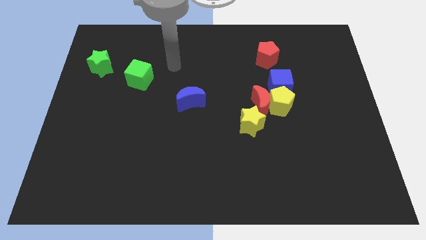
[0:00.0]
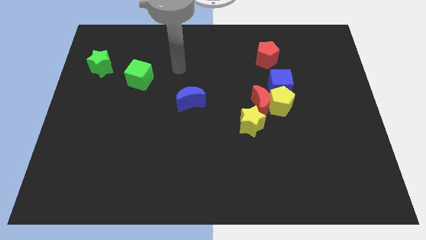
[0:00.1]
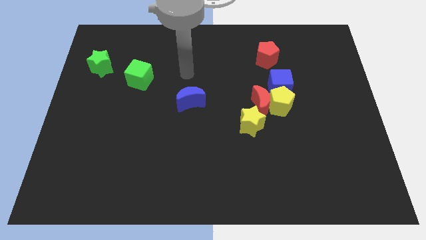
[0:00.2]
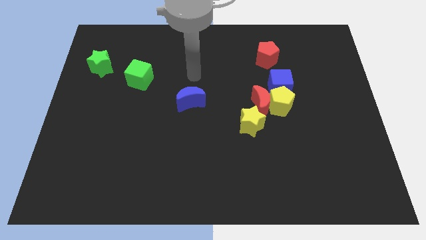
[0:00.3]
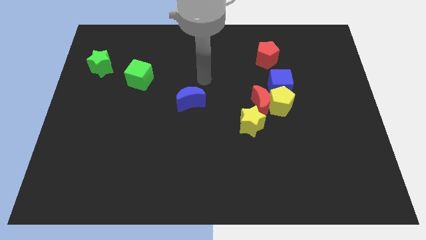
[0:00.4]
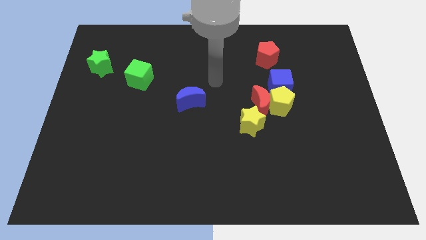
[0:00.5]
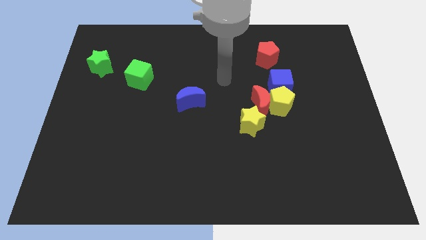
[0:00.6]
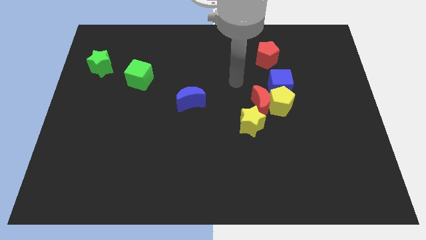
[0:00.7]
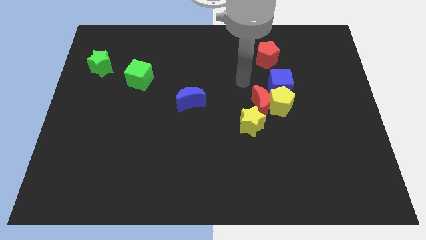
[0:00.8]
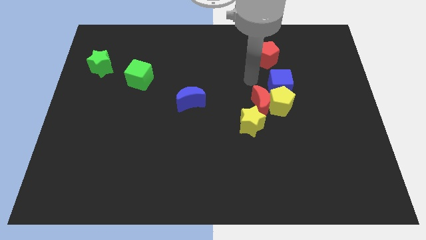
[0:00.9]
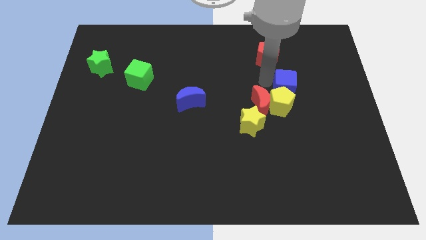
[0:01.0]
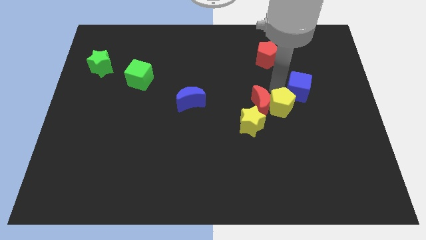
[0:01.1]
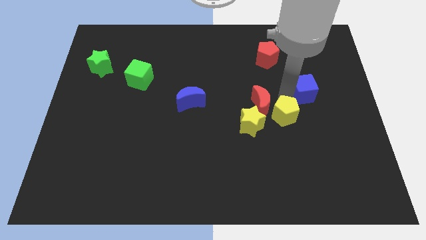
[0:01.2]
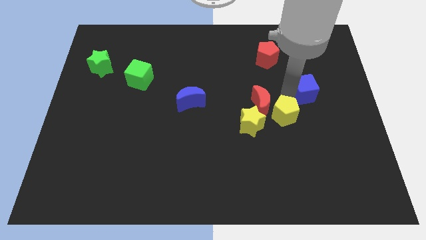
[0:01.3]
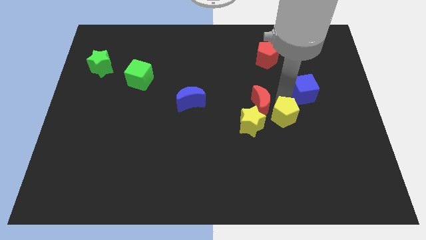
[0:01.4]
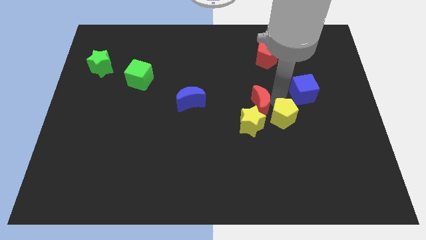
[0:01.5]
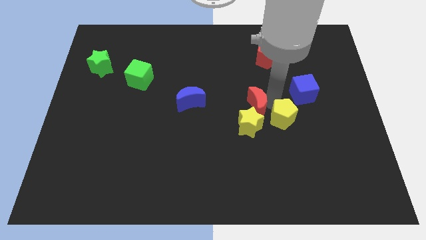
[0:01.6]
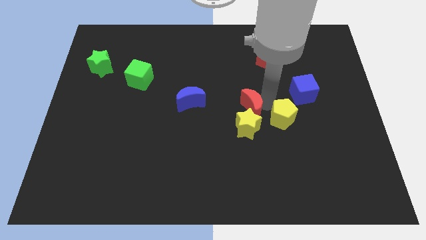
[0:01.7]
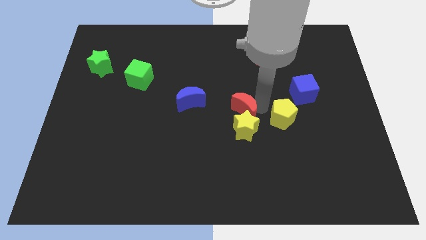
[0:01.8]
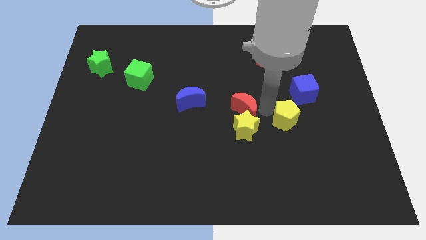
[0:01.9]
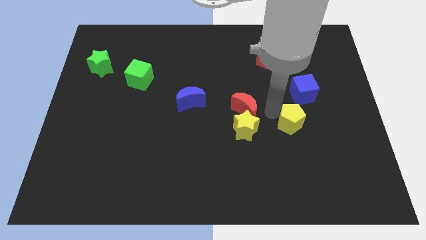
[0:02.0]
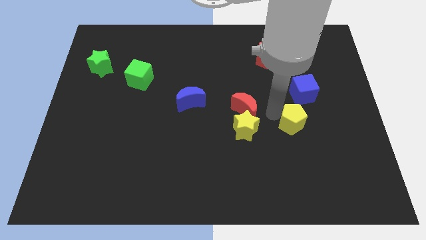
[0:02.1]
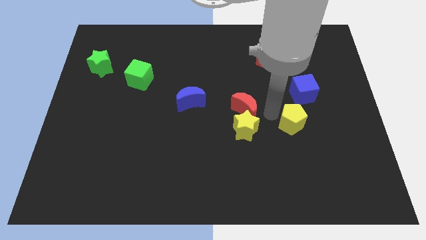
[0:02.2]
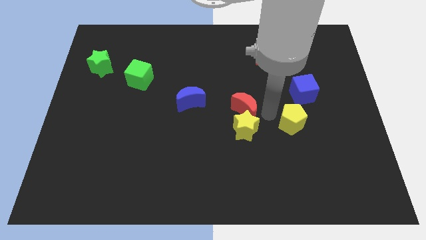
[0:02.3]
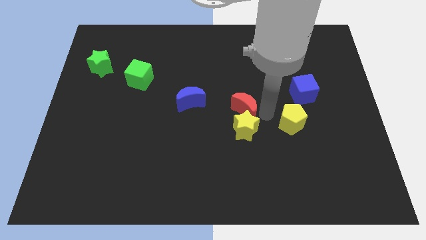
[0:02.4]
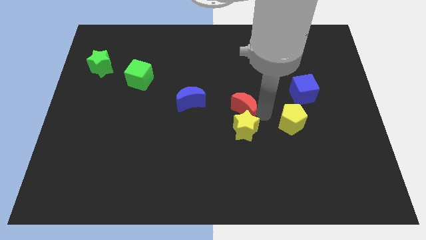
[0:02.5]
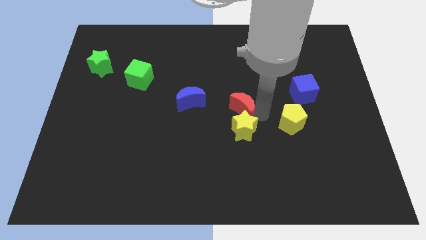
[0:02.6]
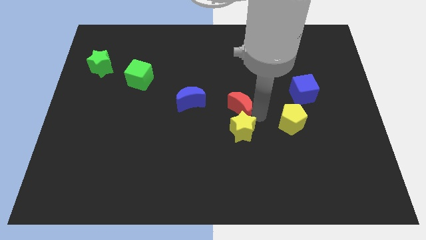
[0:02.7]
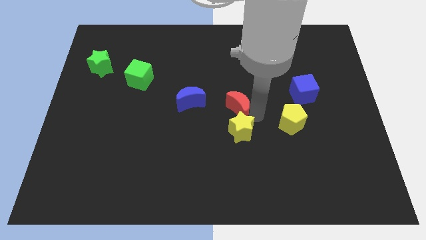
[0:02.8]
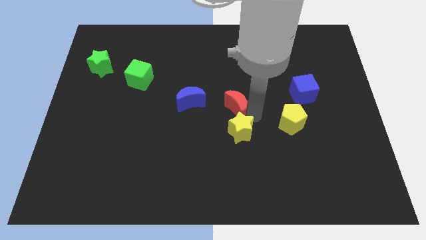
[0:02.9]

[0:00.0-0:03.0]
separate the red moon from the group of blocks

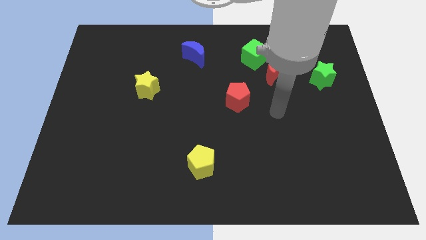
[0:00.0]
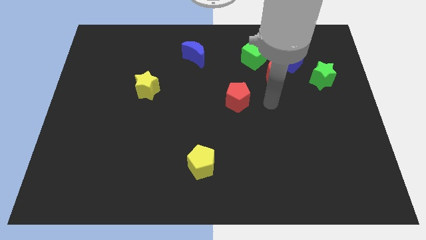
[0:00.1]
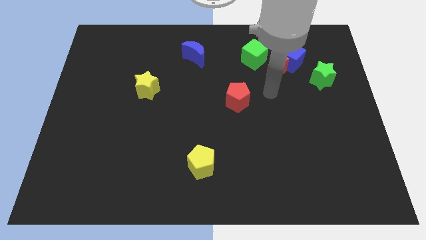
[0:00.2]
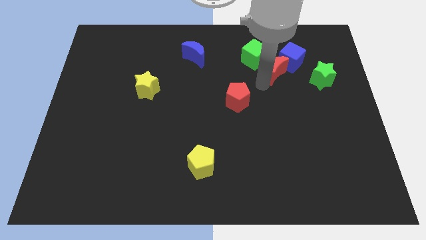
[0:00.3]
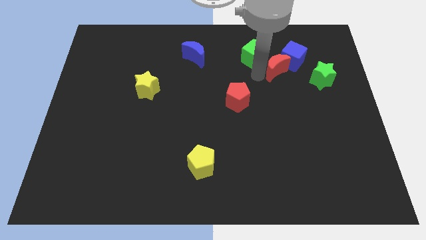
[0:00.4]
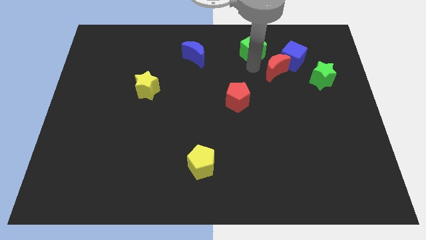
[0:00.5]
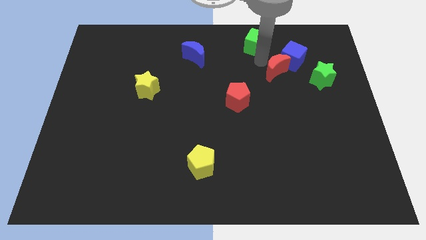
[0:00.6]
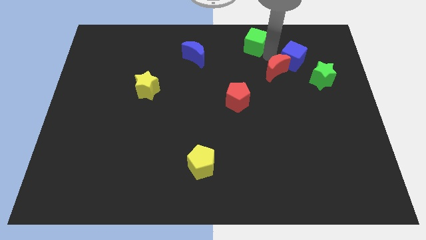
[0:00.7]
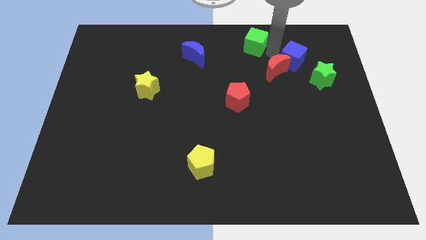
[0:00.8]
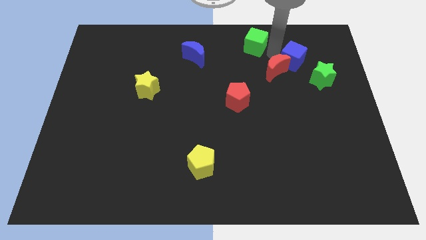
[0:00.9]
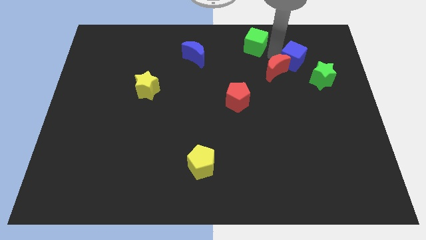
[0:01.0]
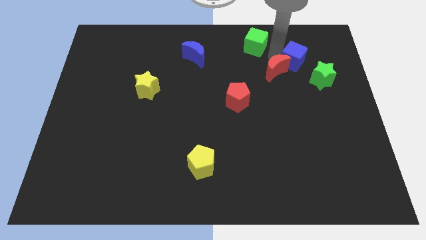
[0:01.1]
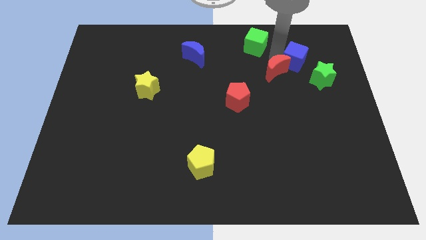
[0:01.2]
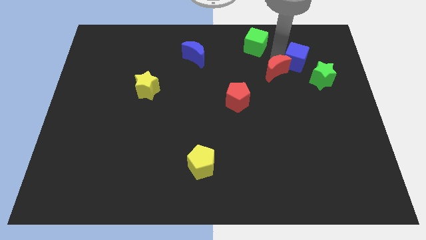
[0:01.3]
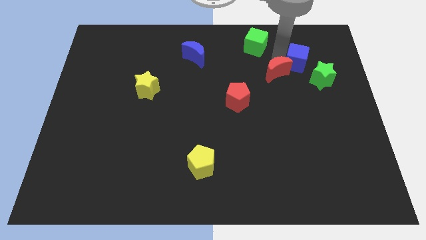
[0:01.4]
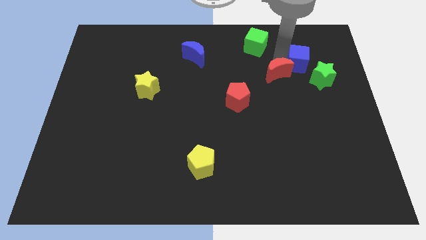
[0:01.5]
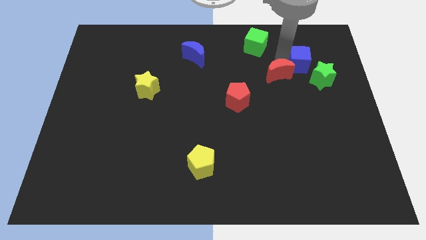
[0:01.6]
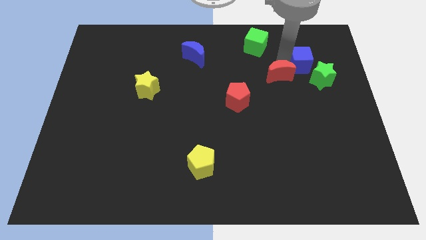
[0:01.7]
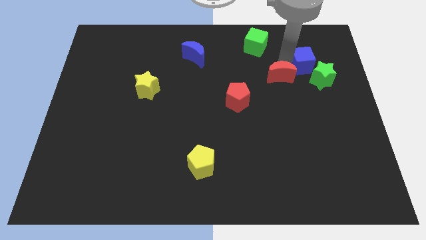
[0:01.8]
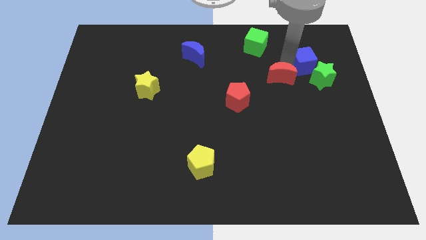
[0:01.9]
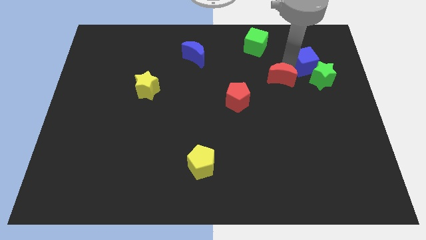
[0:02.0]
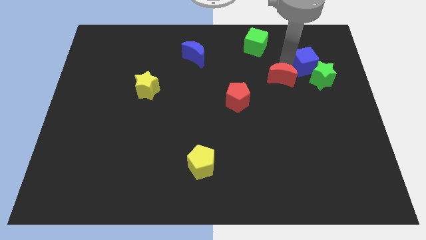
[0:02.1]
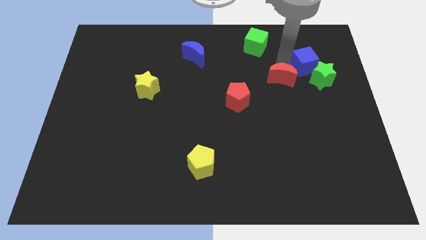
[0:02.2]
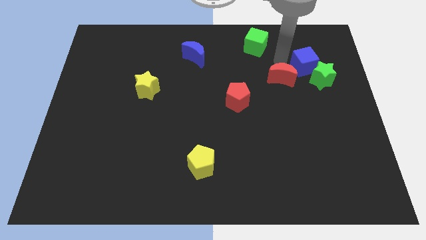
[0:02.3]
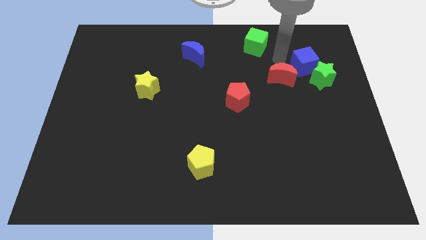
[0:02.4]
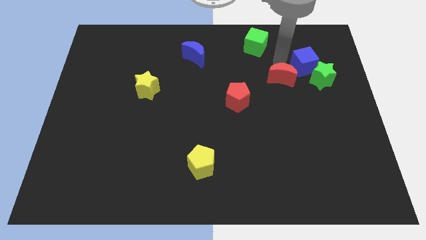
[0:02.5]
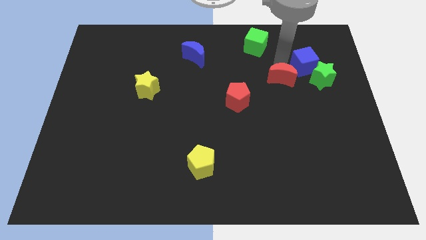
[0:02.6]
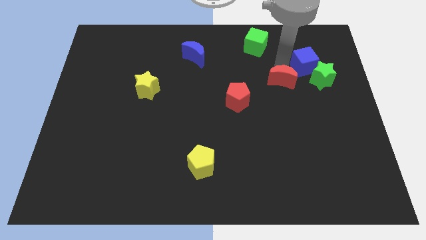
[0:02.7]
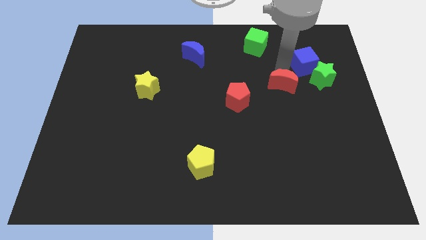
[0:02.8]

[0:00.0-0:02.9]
pull the red moon apart from the blue cube and green cube

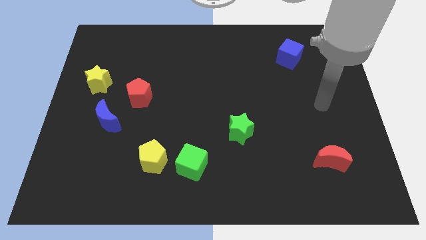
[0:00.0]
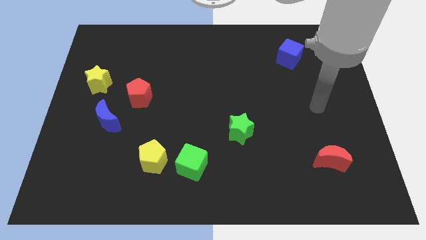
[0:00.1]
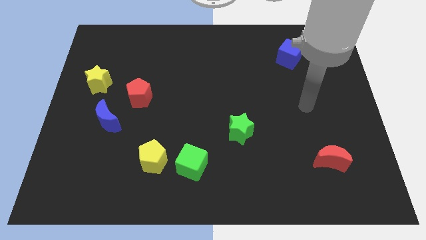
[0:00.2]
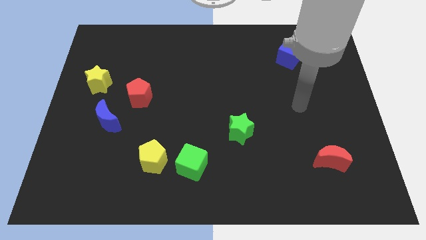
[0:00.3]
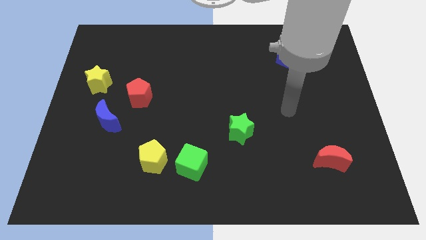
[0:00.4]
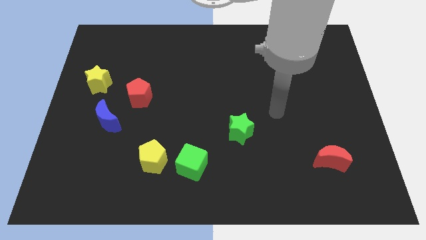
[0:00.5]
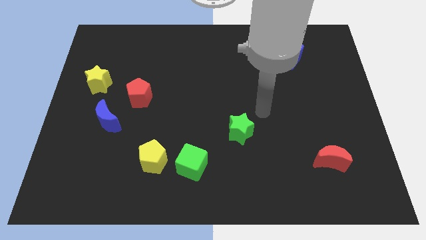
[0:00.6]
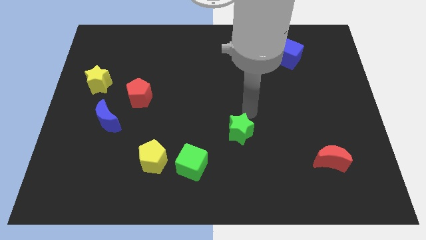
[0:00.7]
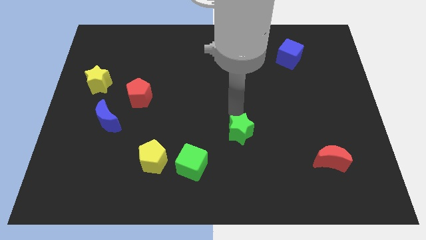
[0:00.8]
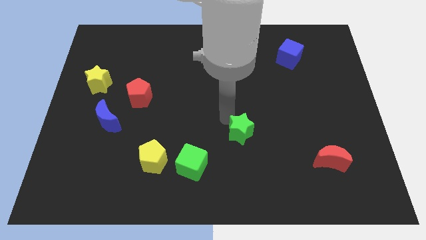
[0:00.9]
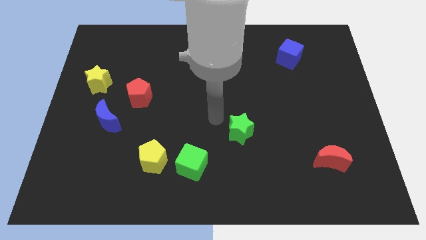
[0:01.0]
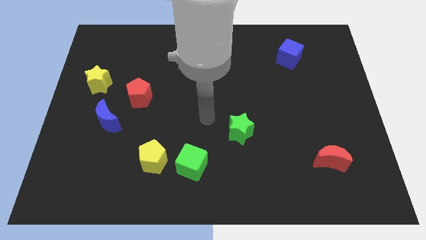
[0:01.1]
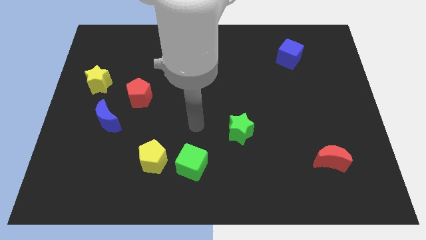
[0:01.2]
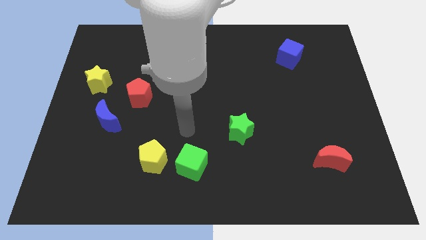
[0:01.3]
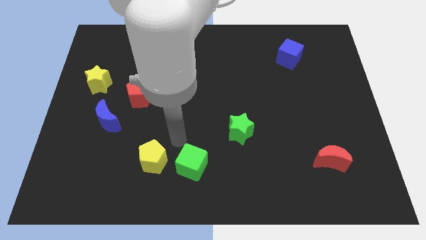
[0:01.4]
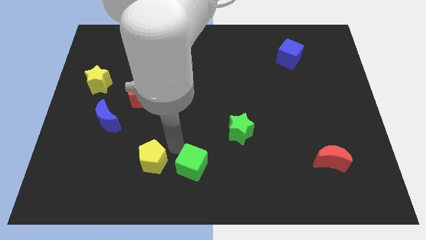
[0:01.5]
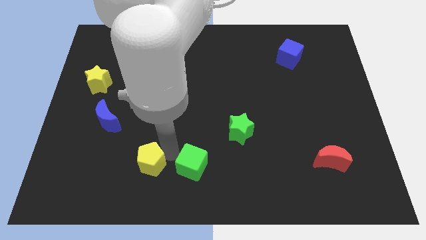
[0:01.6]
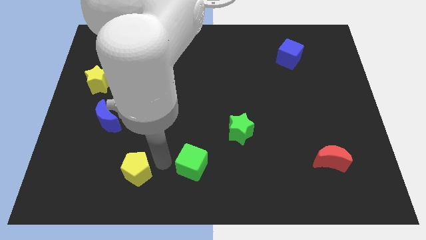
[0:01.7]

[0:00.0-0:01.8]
pull the green cube apart from the yellow pentagon

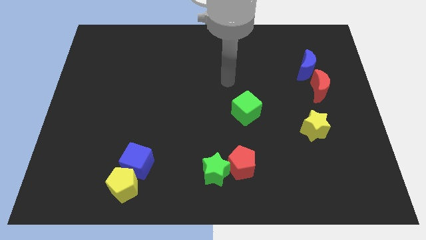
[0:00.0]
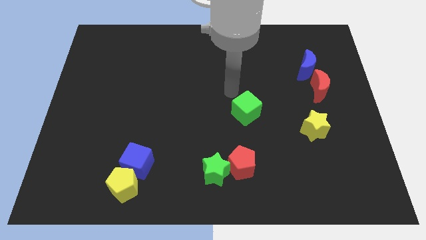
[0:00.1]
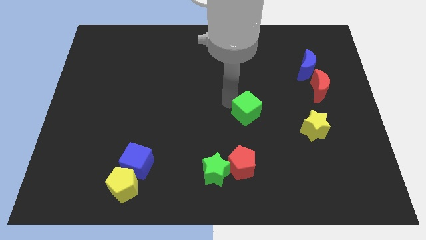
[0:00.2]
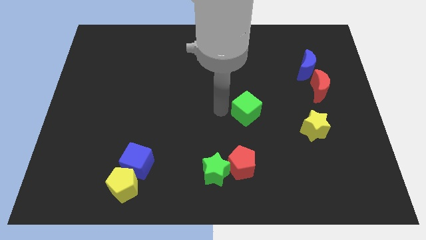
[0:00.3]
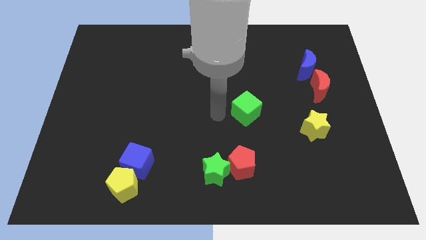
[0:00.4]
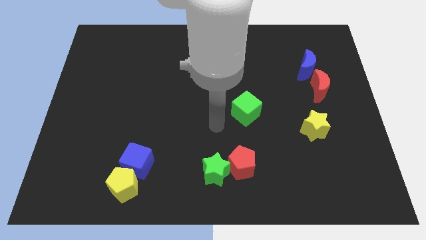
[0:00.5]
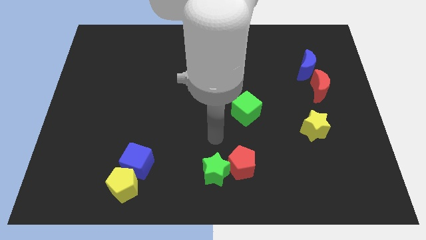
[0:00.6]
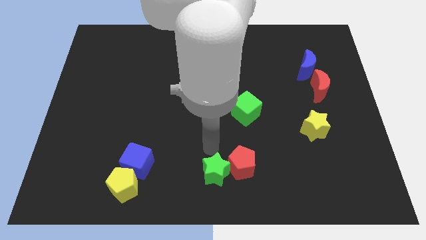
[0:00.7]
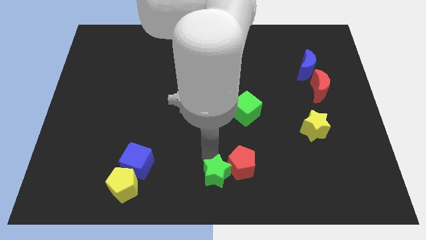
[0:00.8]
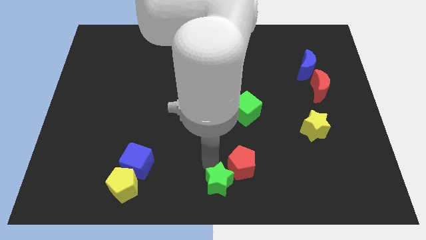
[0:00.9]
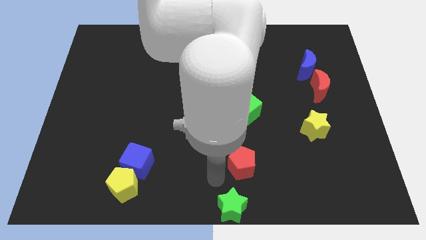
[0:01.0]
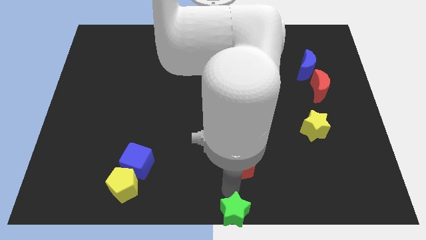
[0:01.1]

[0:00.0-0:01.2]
move the red pentagon away from the green star

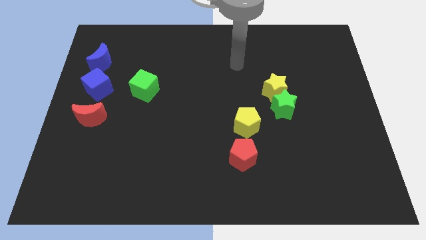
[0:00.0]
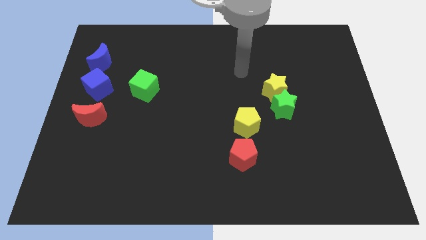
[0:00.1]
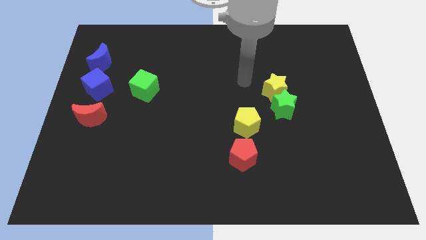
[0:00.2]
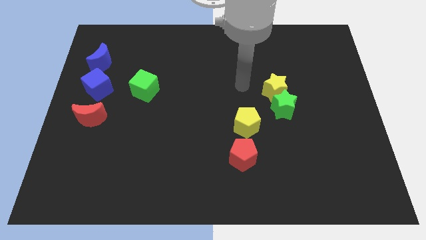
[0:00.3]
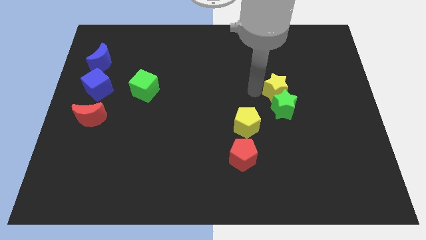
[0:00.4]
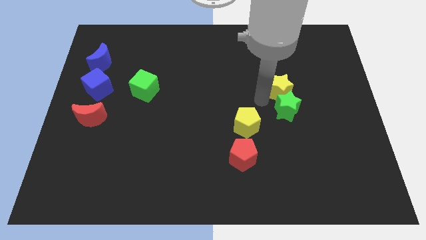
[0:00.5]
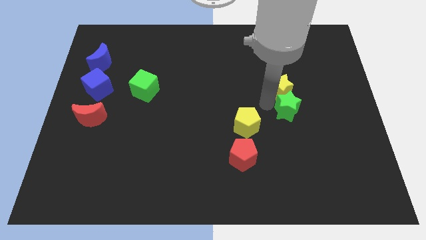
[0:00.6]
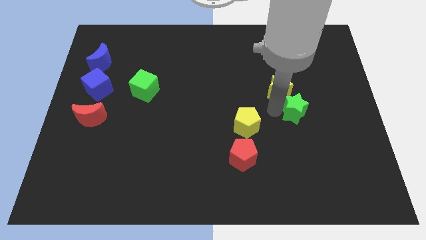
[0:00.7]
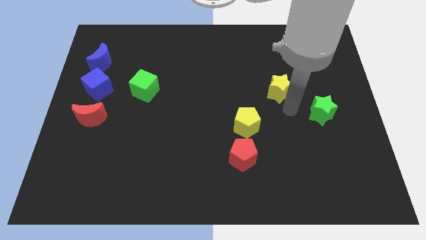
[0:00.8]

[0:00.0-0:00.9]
pull the yellow star apart from the green star
